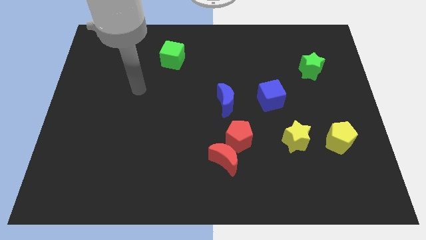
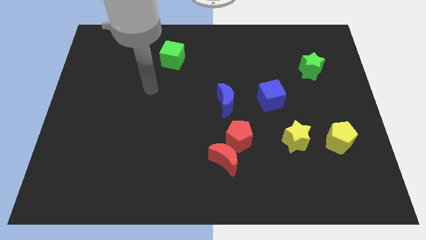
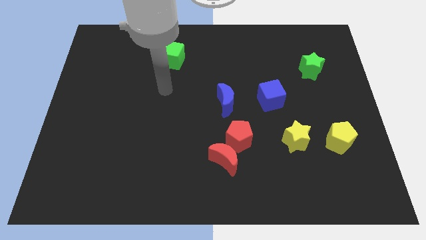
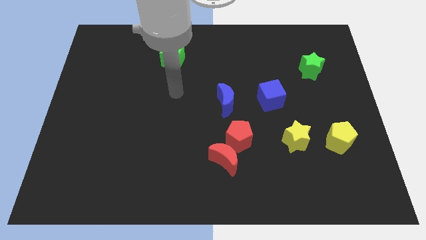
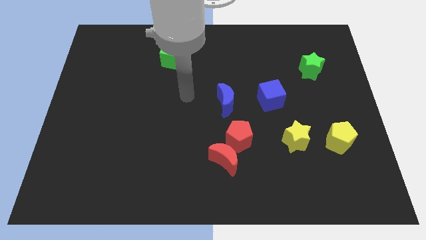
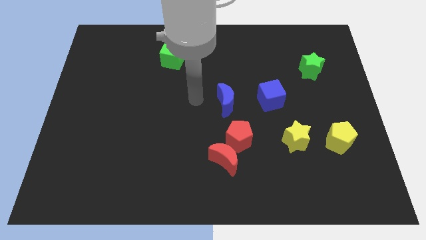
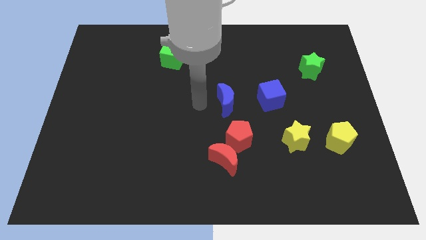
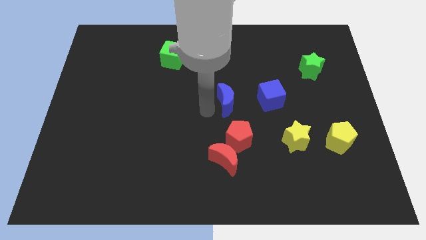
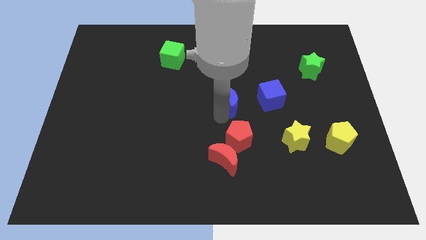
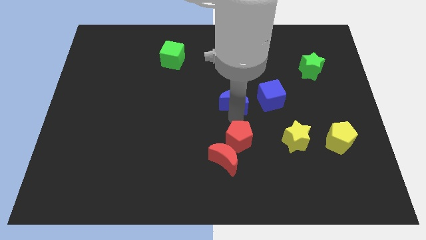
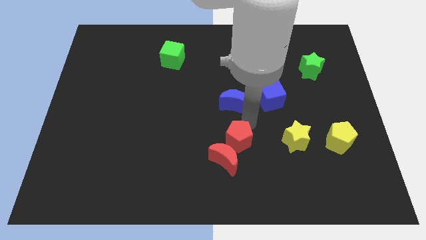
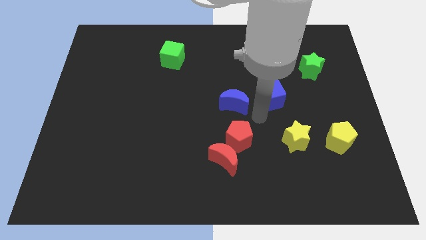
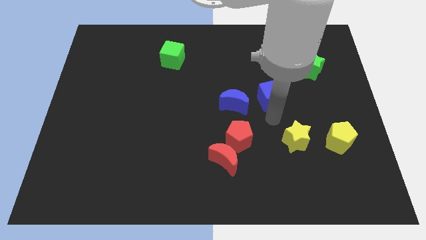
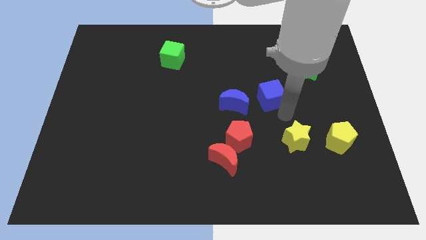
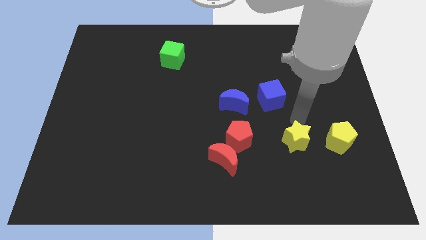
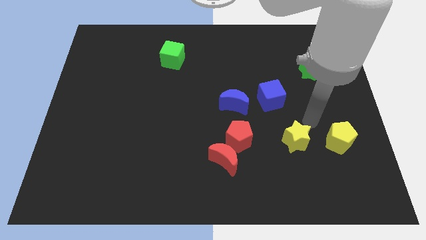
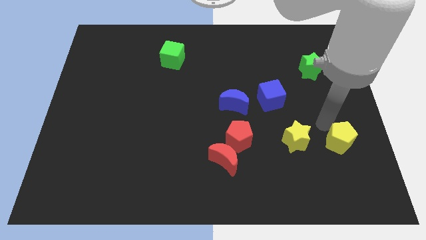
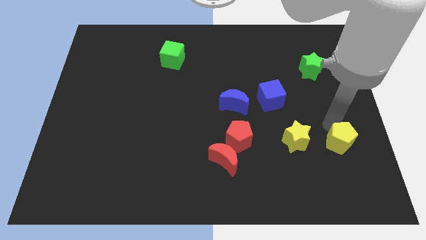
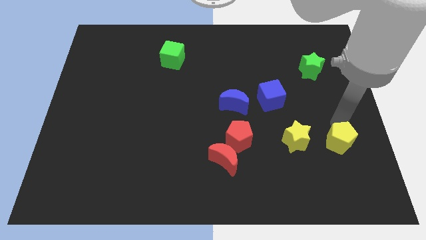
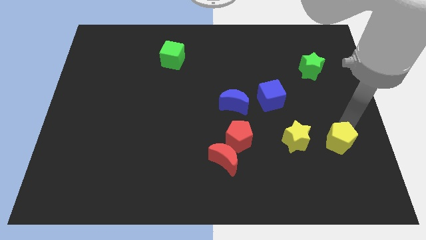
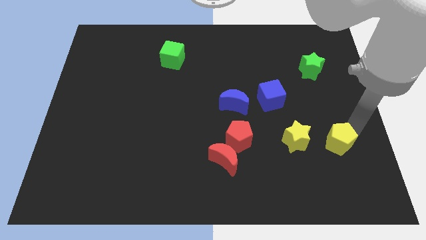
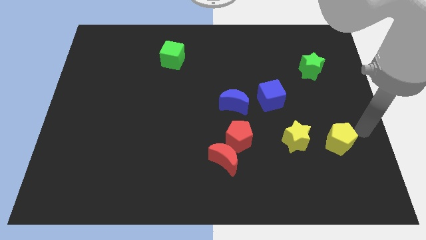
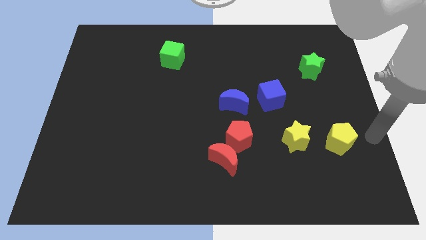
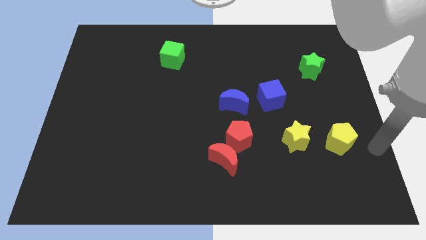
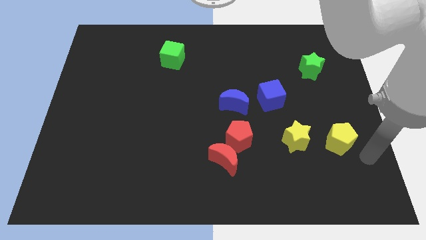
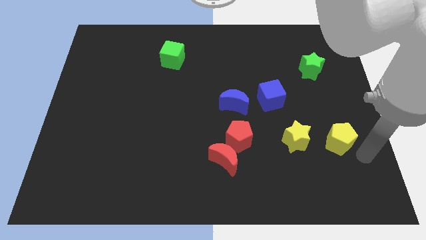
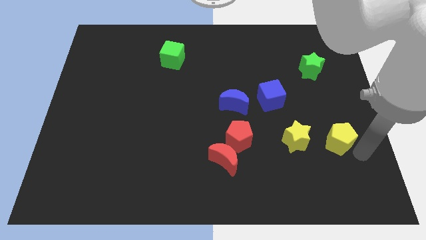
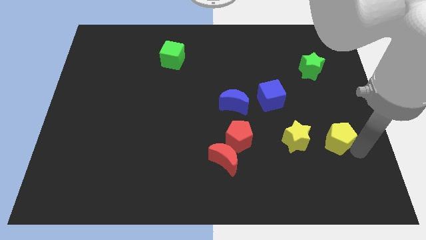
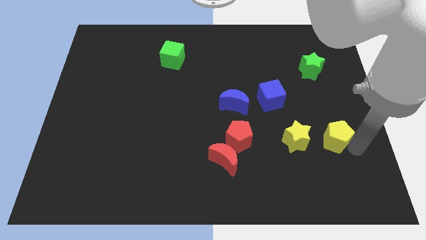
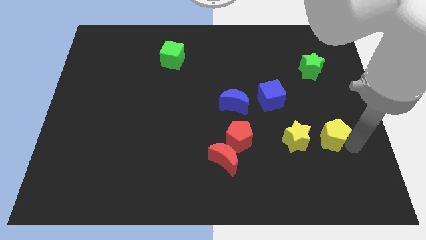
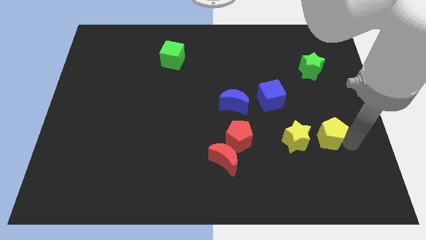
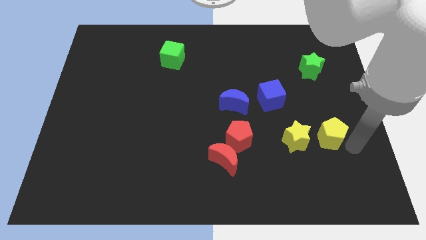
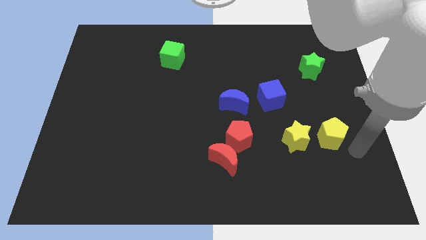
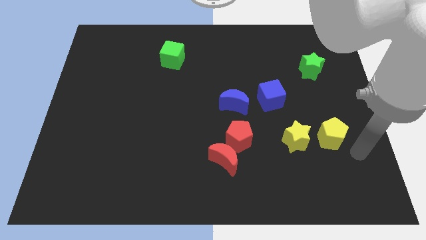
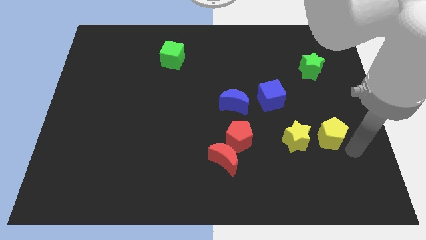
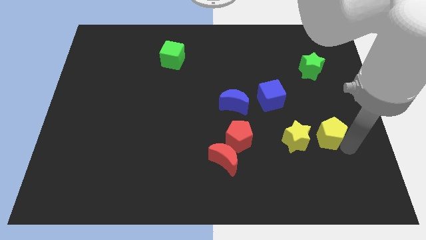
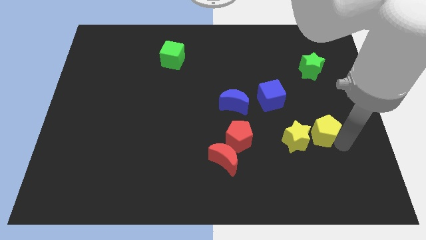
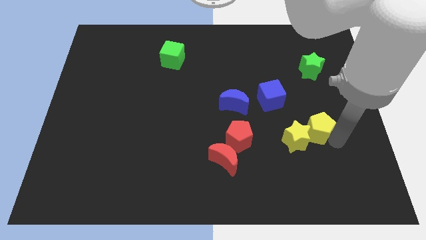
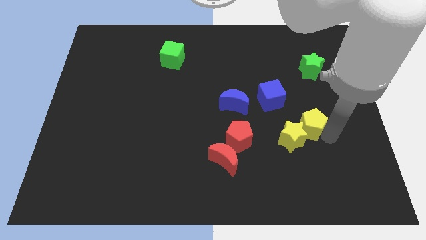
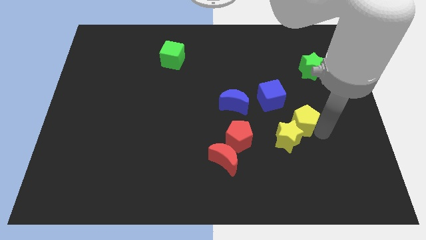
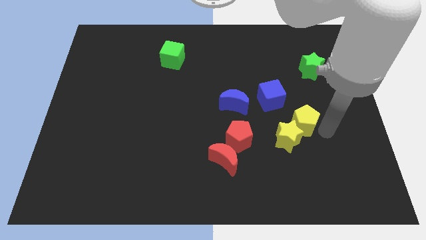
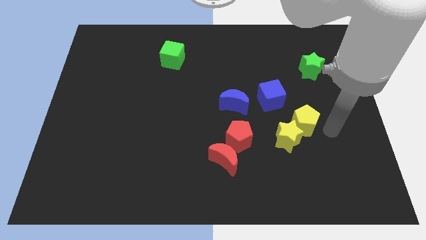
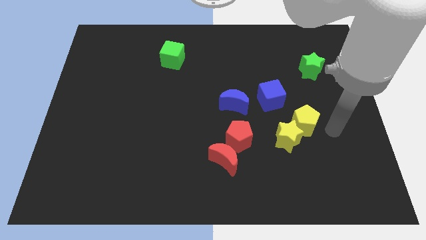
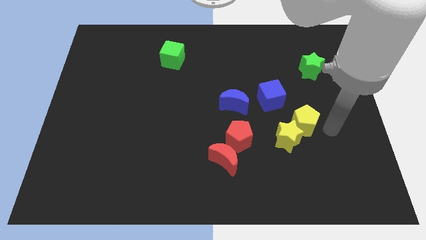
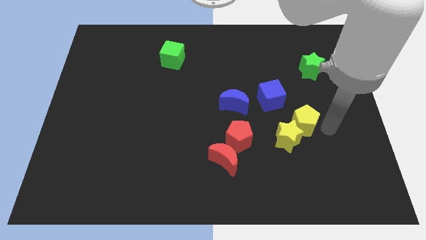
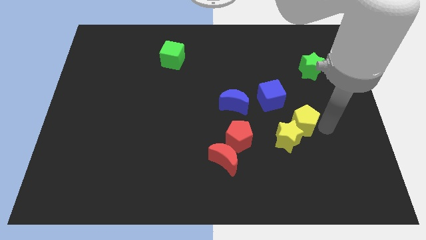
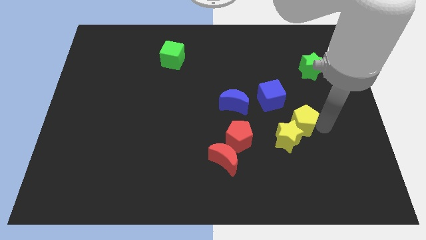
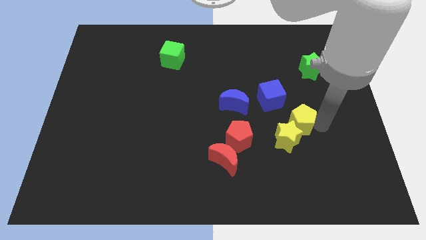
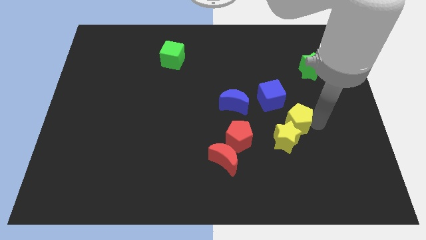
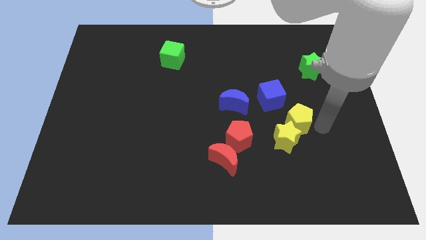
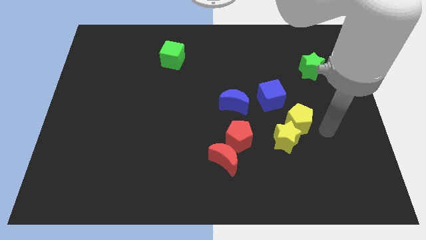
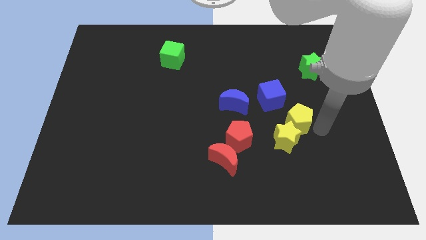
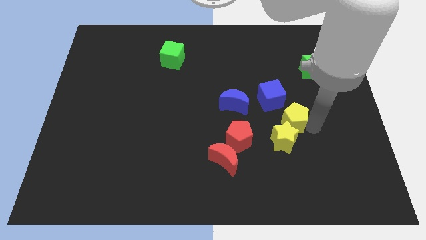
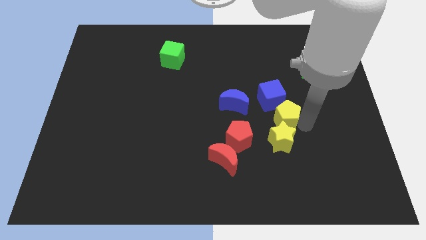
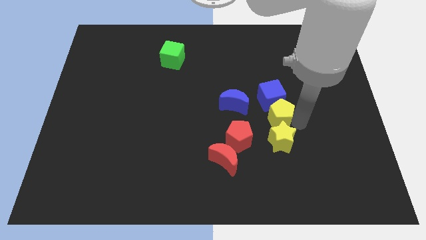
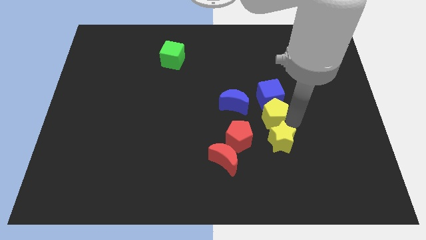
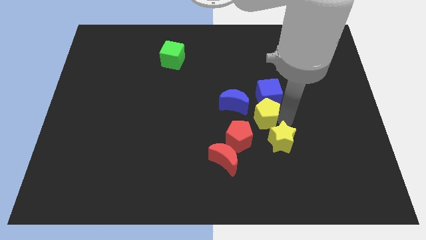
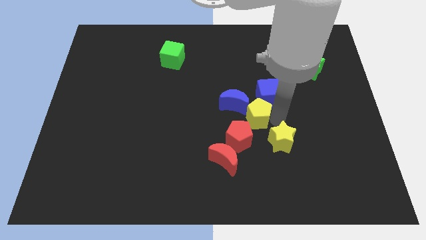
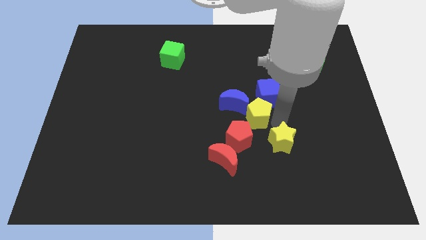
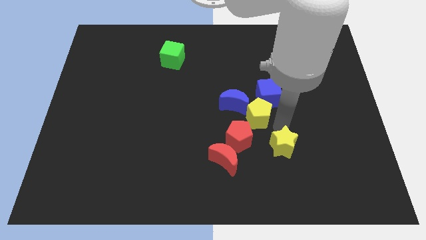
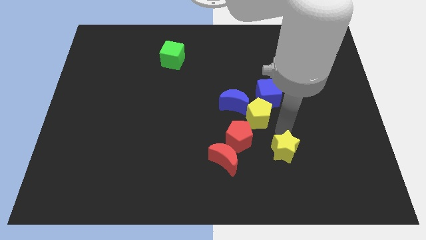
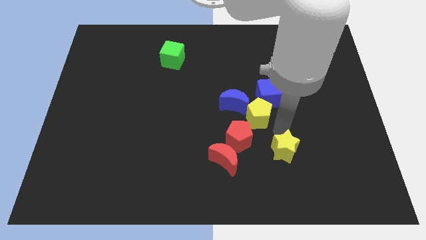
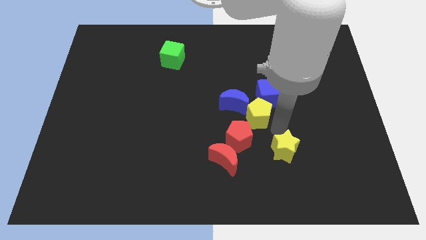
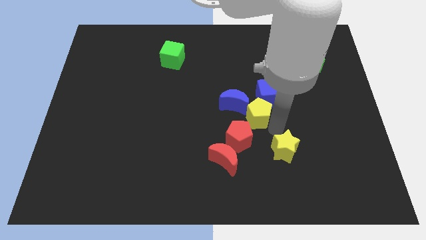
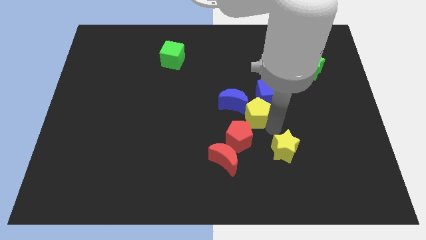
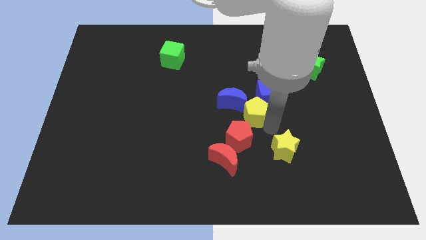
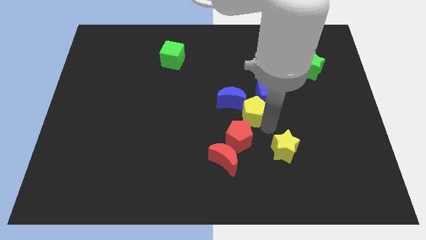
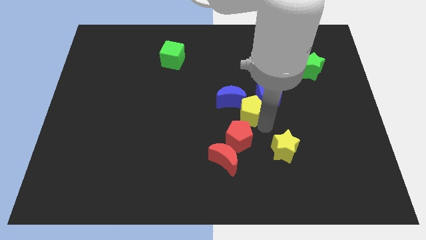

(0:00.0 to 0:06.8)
move the yellow pentagon next to the blue moon
